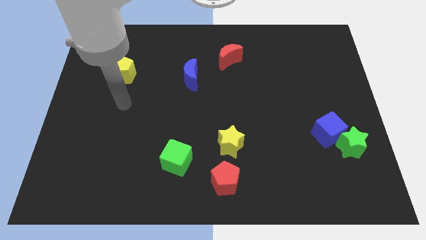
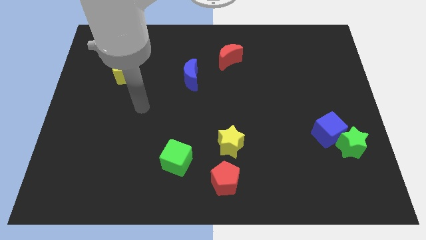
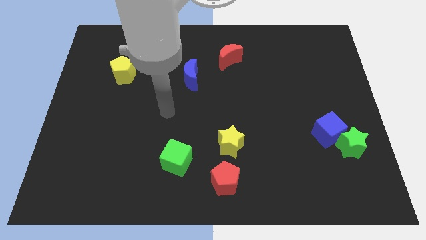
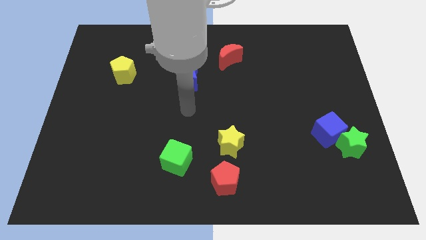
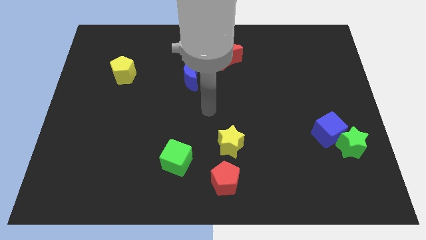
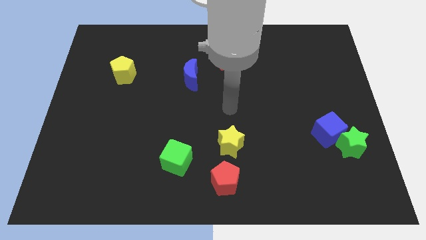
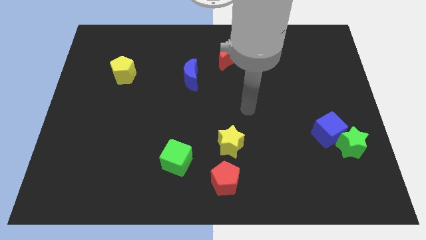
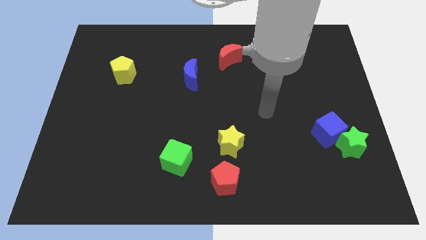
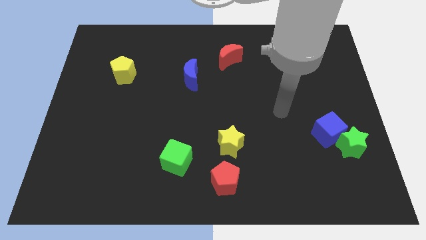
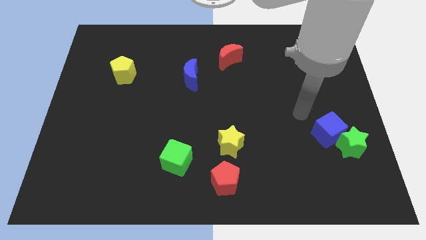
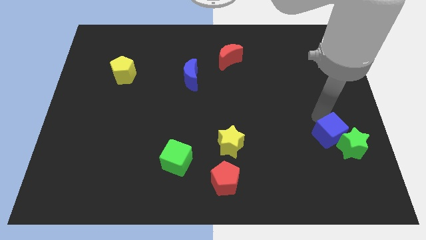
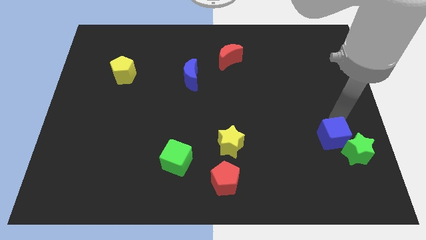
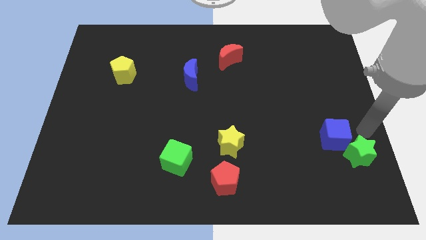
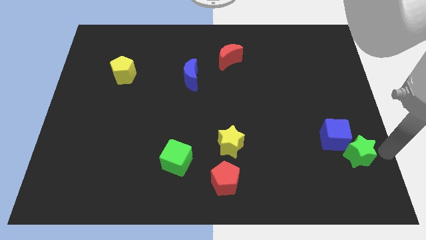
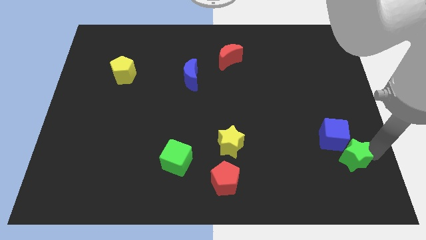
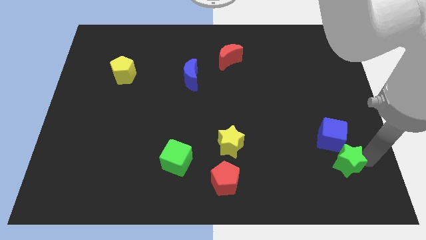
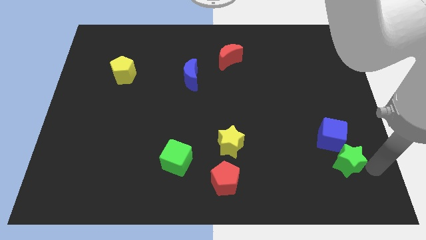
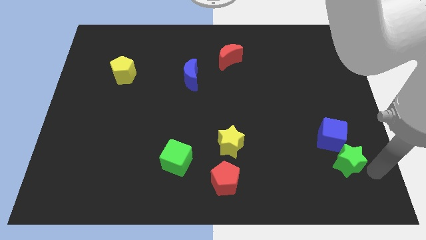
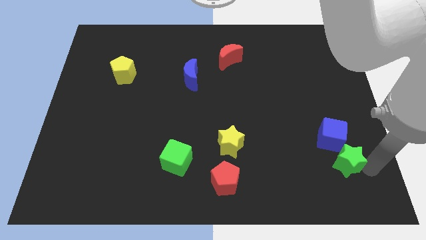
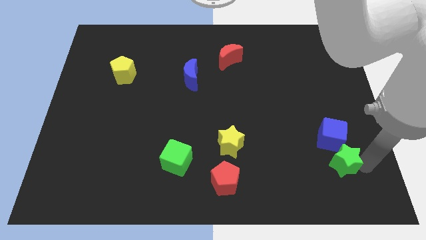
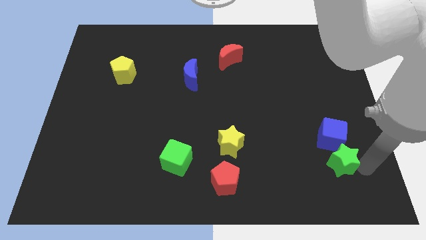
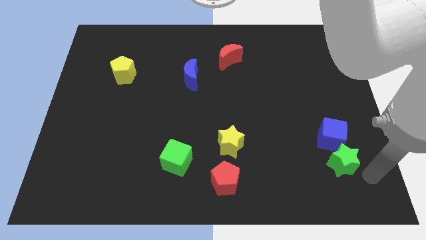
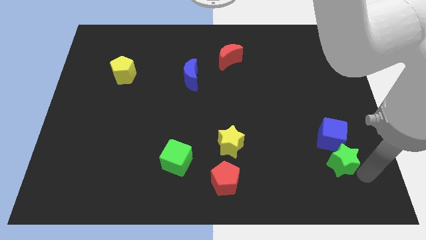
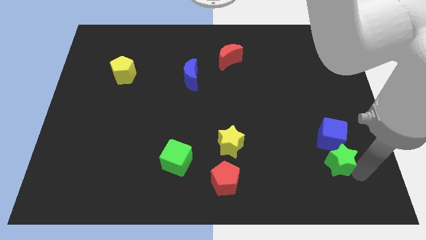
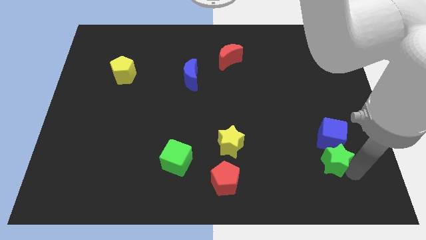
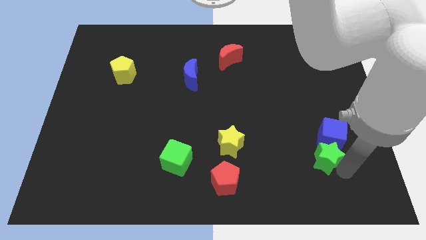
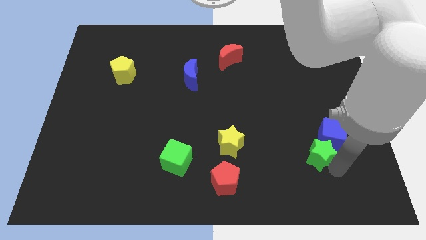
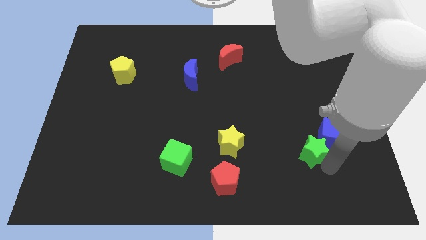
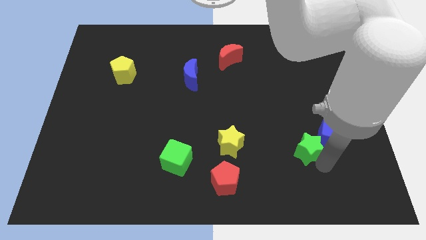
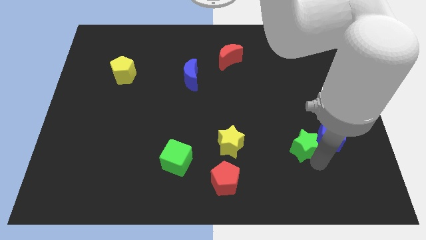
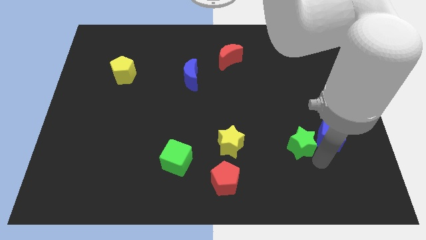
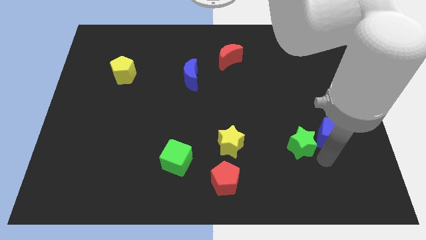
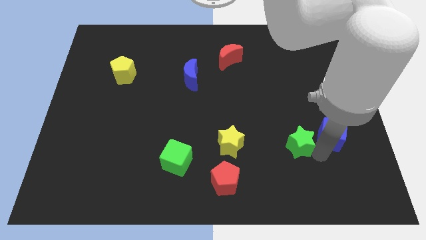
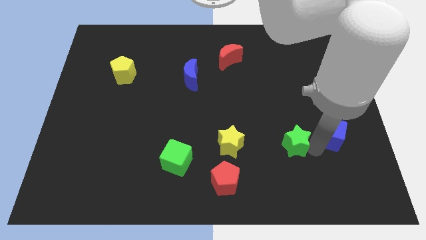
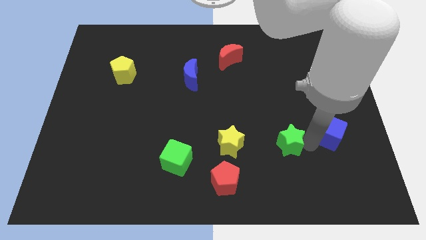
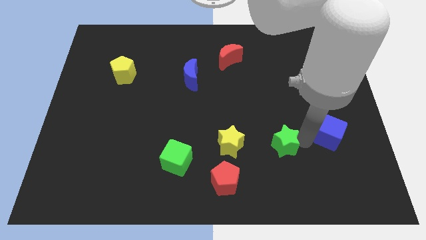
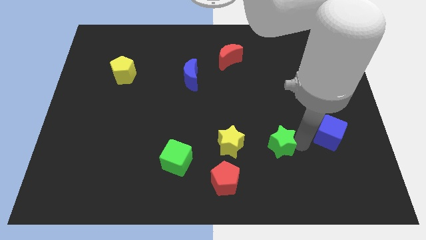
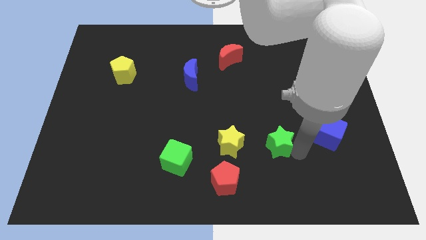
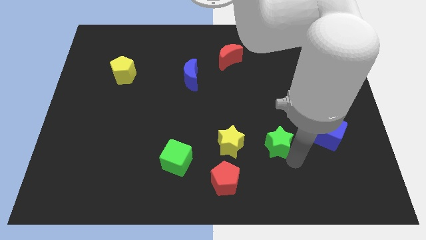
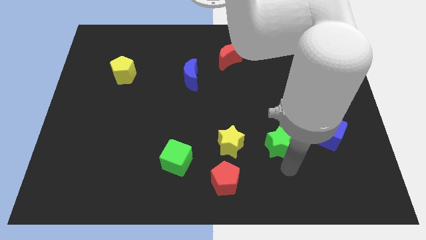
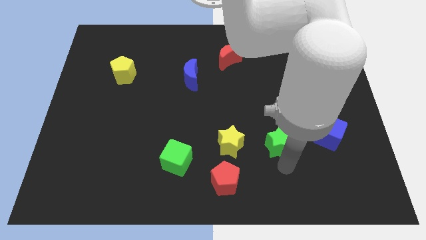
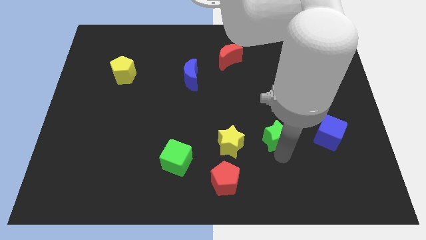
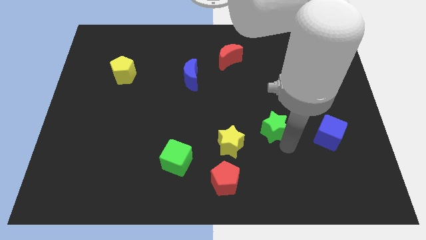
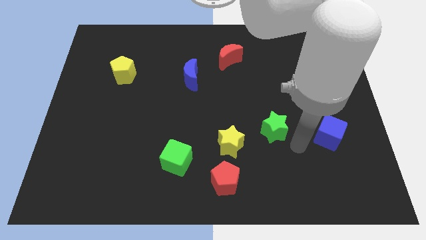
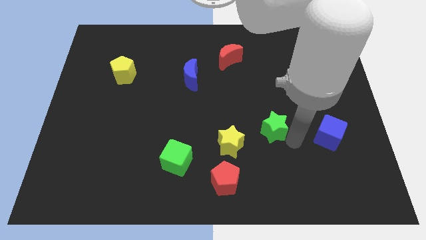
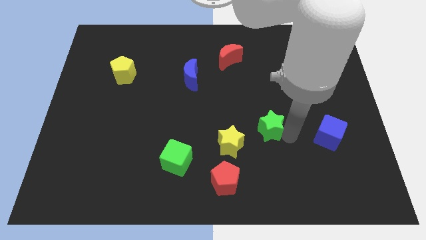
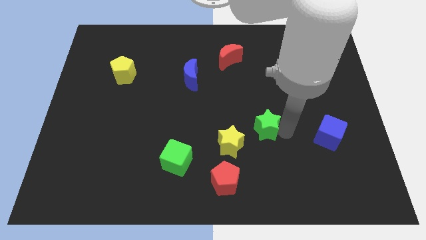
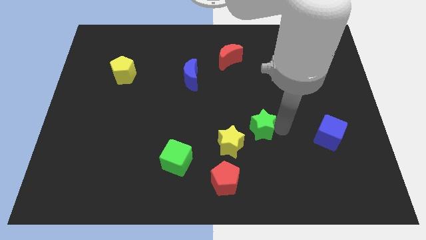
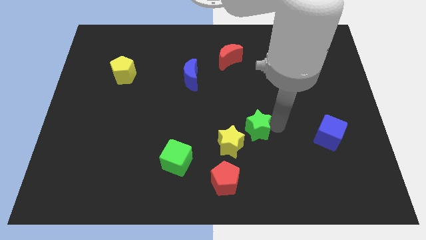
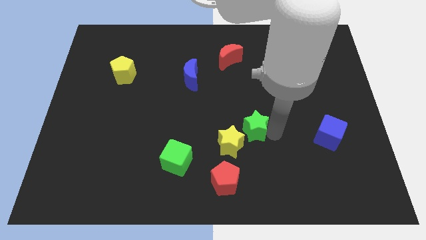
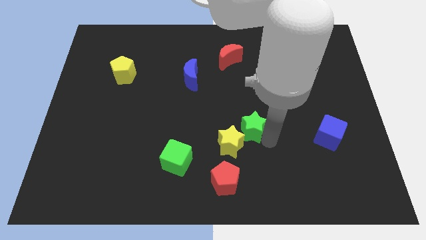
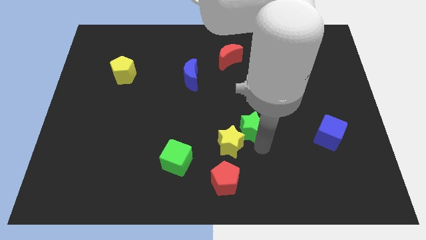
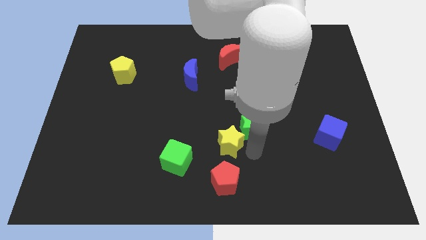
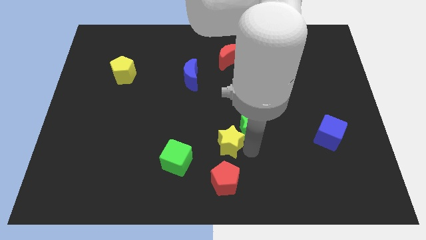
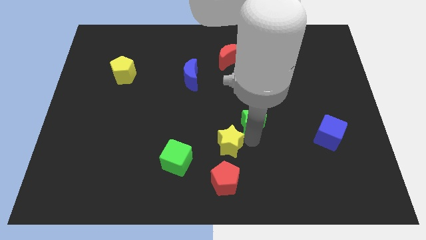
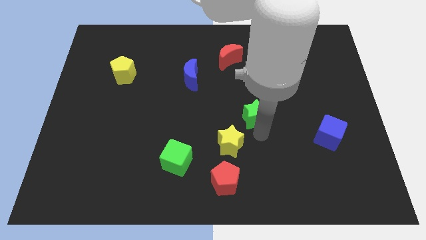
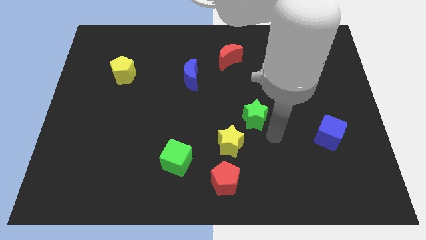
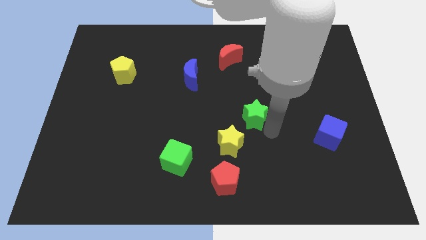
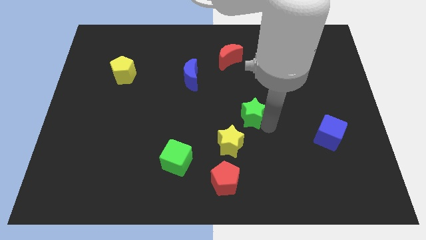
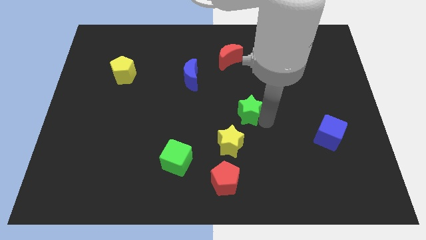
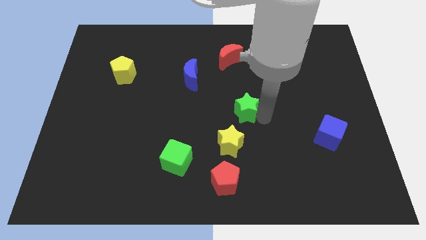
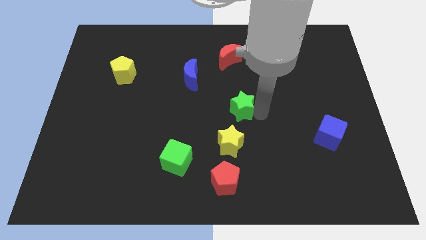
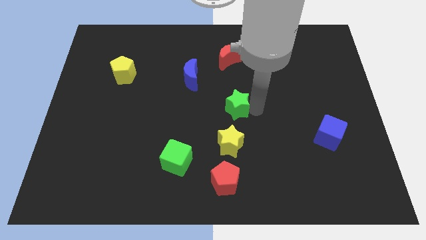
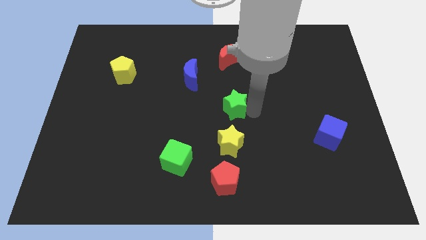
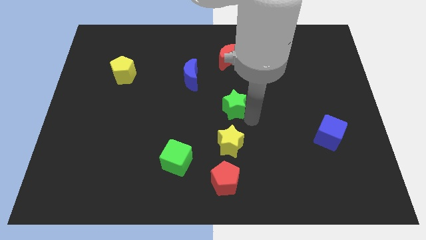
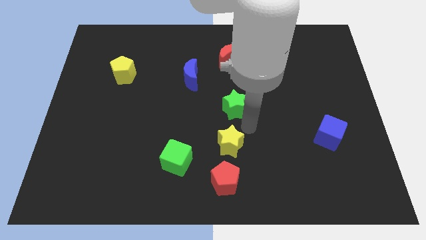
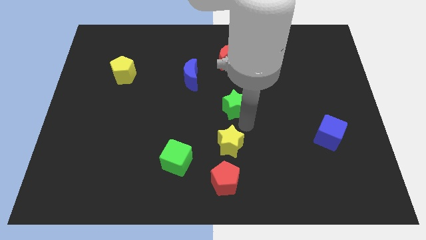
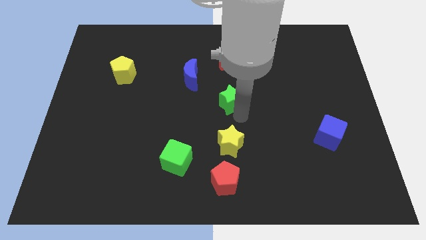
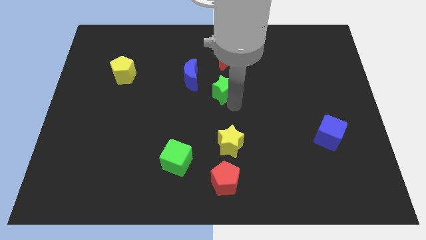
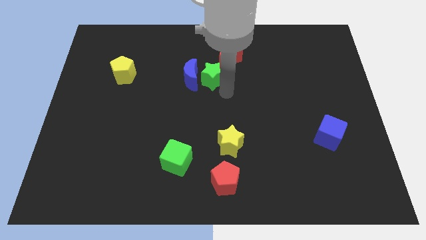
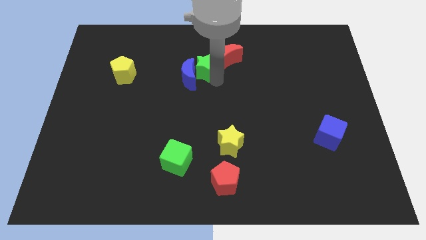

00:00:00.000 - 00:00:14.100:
slide the green star to the left of the red moon

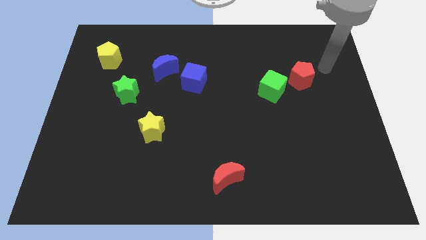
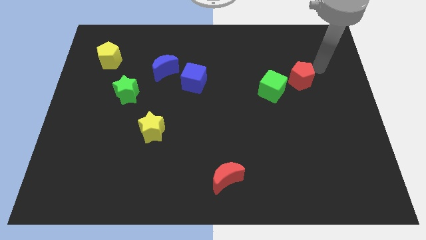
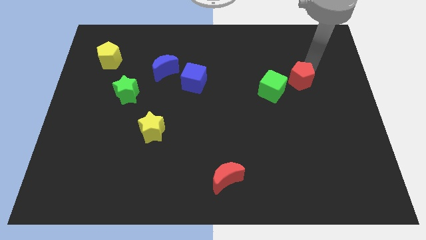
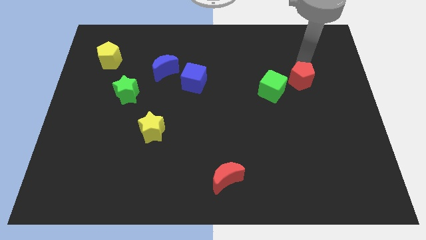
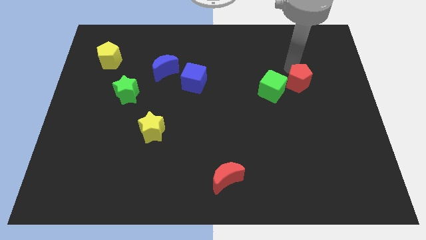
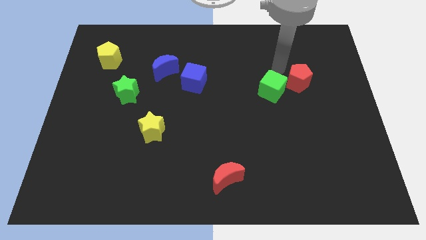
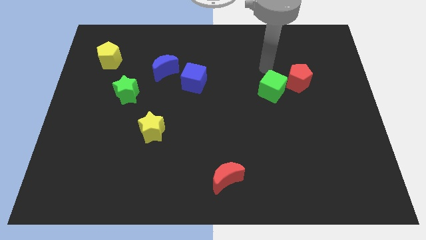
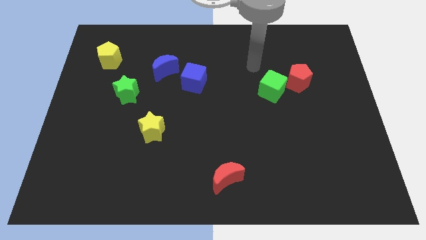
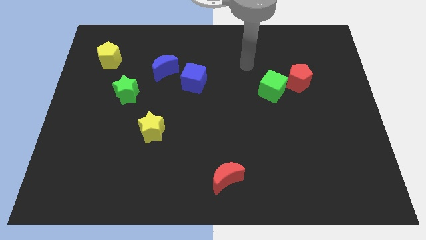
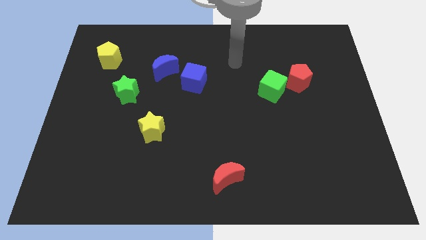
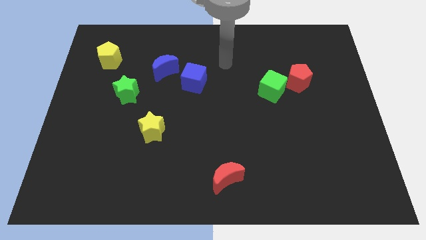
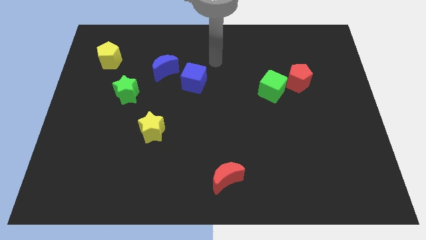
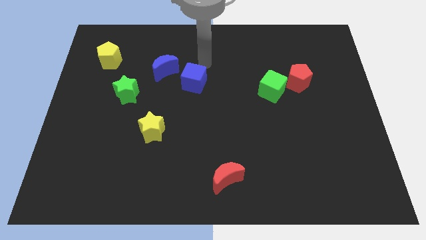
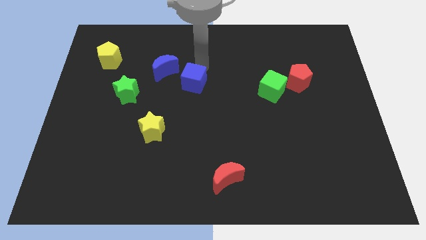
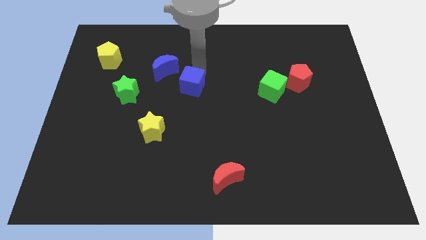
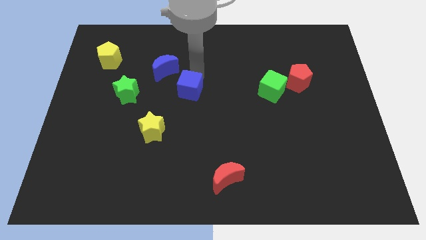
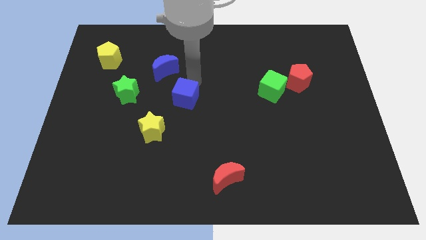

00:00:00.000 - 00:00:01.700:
push the blue cube to the top right of the yellow star
